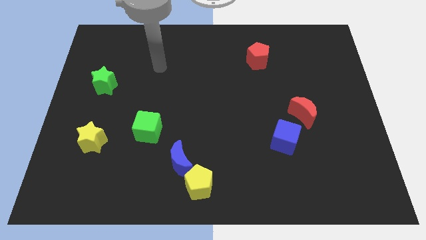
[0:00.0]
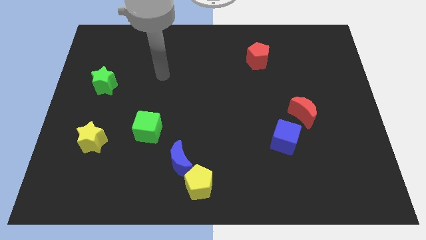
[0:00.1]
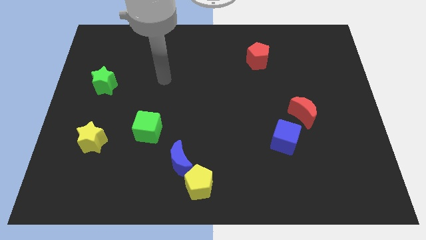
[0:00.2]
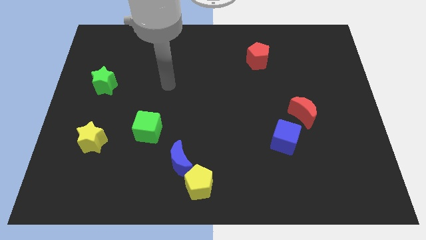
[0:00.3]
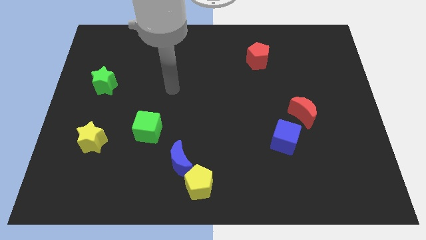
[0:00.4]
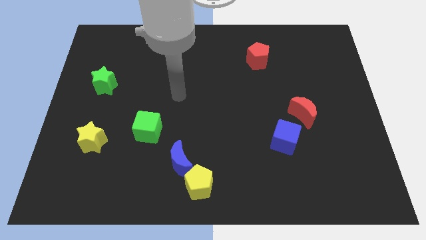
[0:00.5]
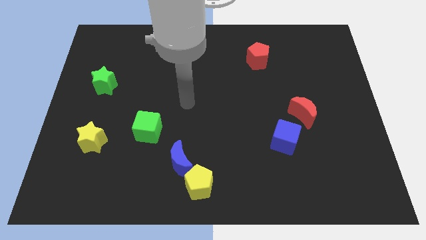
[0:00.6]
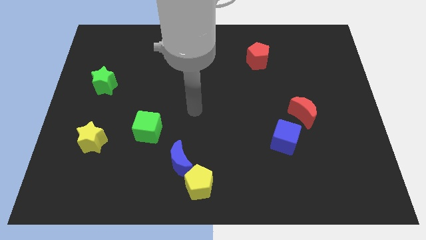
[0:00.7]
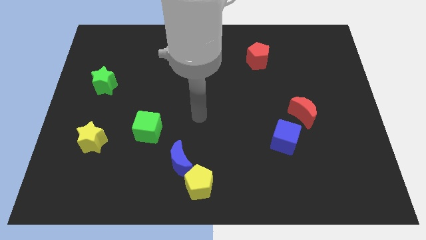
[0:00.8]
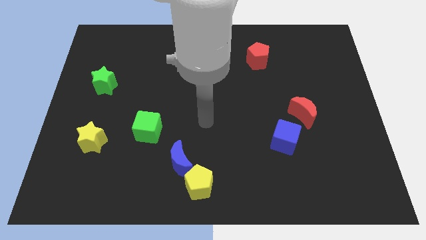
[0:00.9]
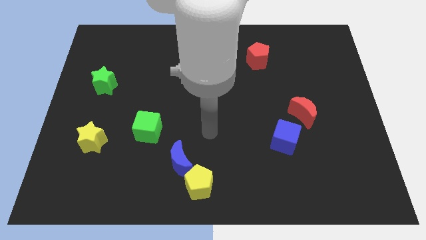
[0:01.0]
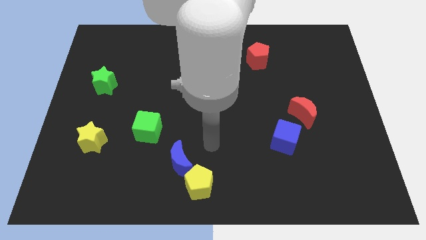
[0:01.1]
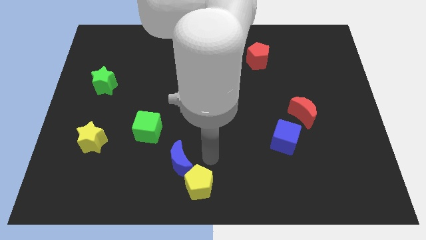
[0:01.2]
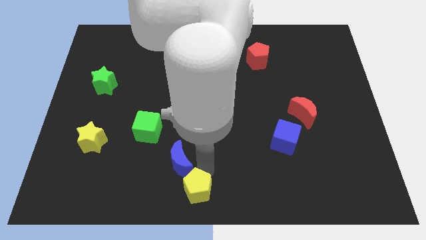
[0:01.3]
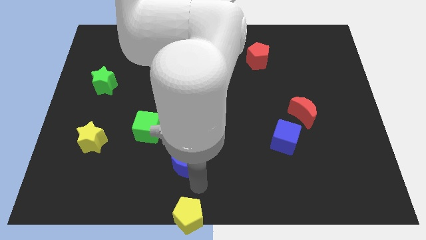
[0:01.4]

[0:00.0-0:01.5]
pull the blue moon apart from the yellow pentagon

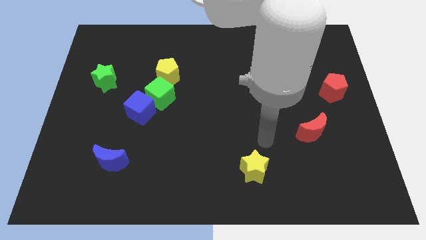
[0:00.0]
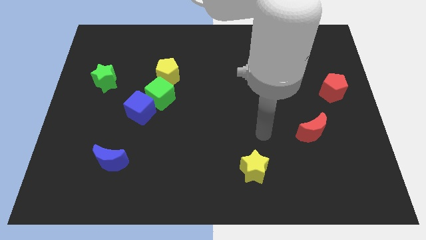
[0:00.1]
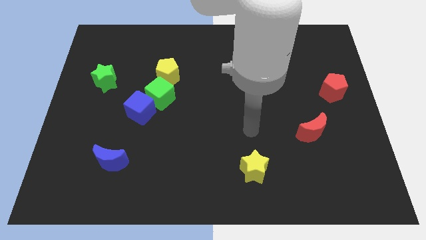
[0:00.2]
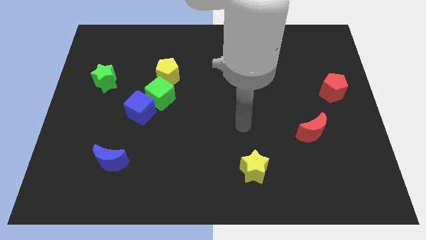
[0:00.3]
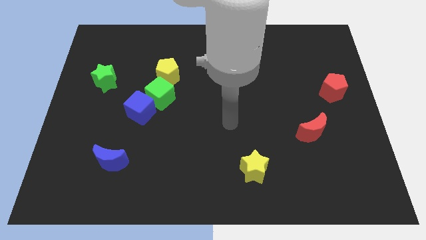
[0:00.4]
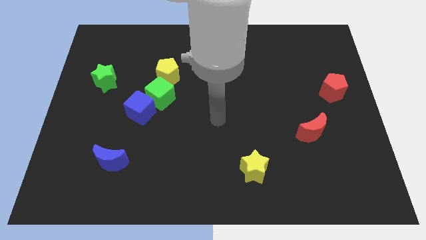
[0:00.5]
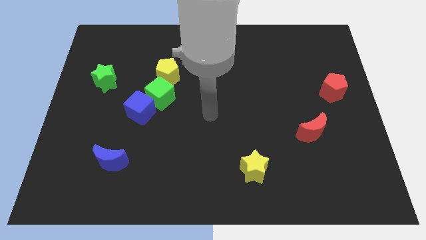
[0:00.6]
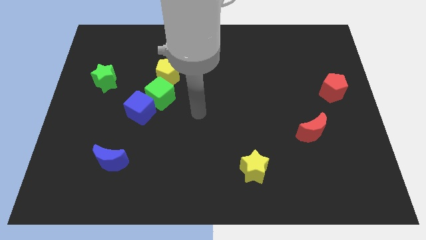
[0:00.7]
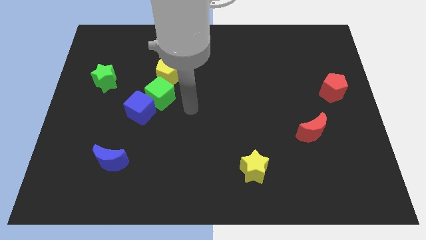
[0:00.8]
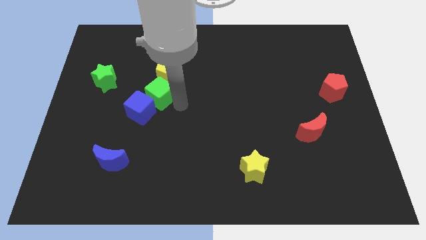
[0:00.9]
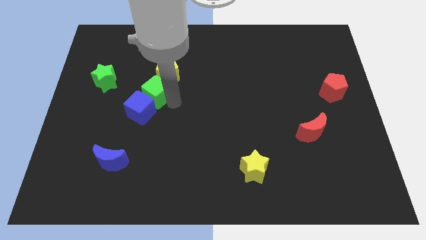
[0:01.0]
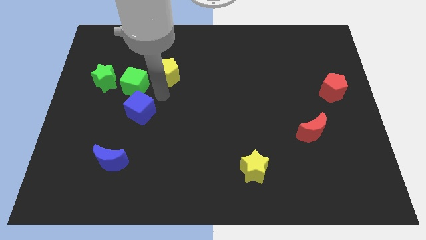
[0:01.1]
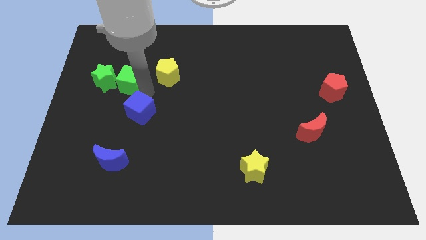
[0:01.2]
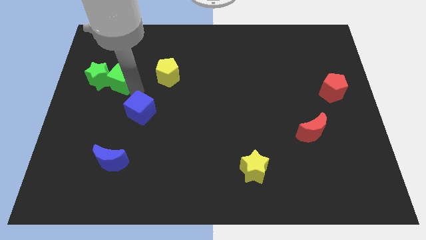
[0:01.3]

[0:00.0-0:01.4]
move the blue cube away from the green cube

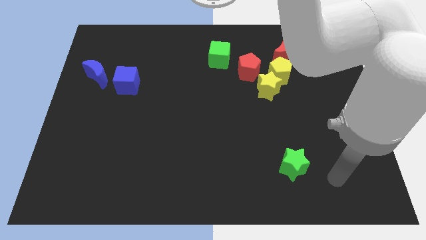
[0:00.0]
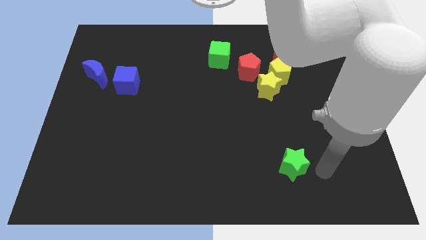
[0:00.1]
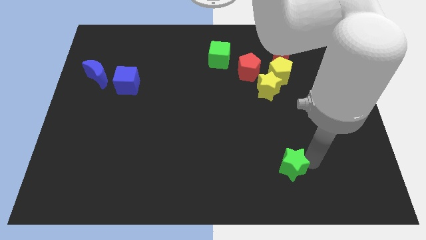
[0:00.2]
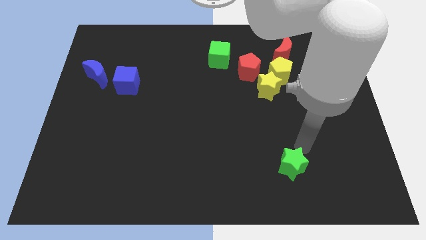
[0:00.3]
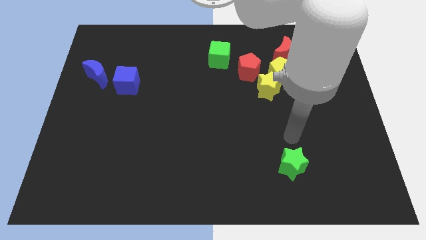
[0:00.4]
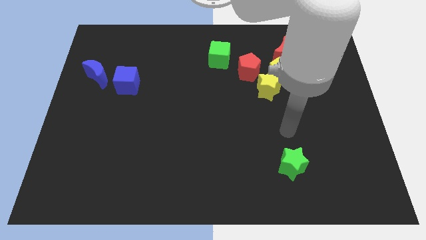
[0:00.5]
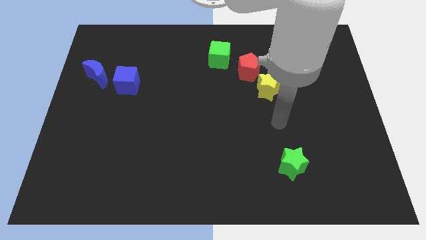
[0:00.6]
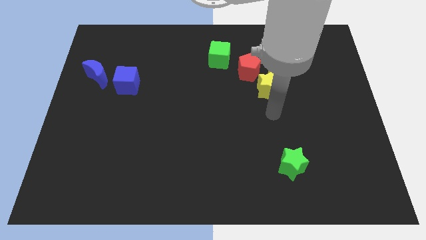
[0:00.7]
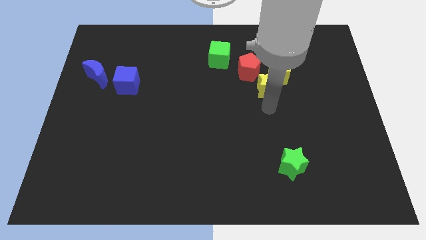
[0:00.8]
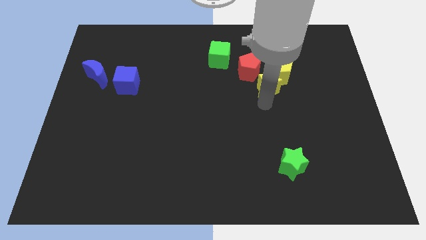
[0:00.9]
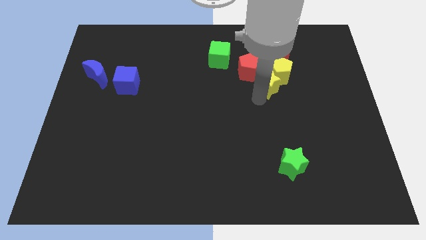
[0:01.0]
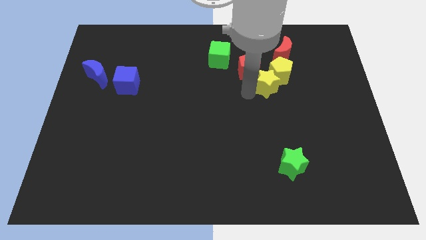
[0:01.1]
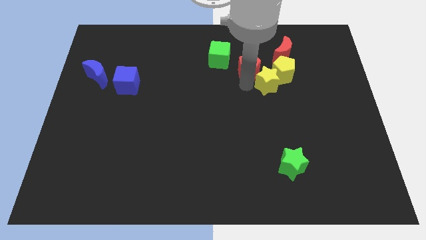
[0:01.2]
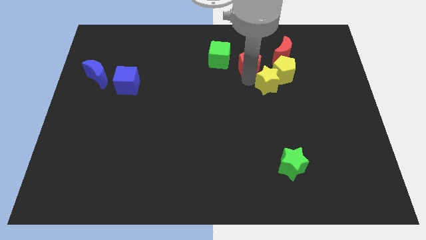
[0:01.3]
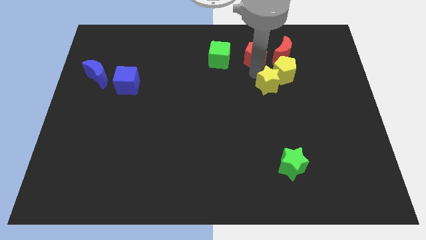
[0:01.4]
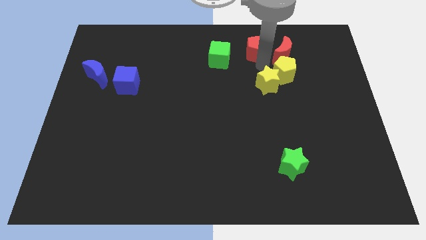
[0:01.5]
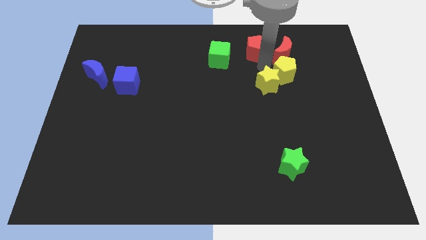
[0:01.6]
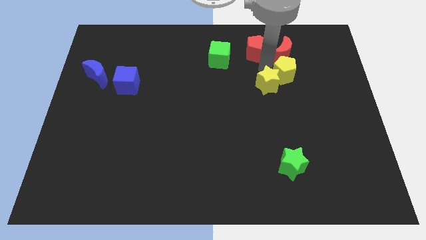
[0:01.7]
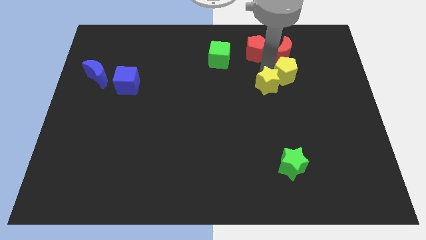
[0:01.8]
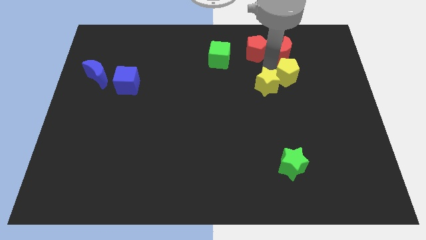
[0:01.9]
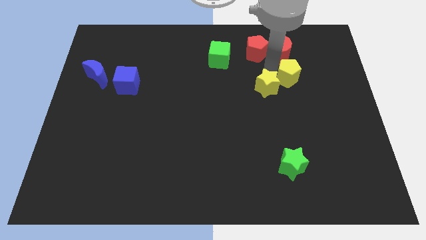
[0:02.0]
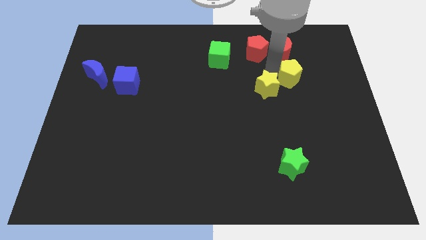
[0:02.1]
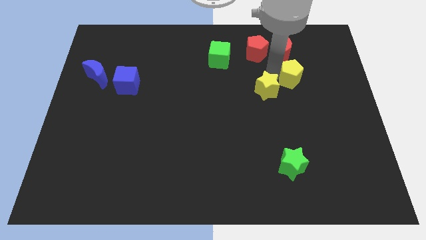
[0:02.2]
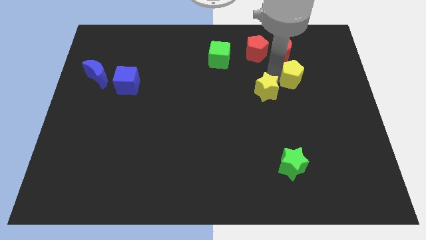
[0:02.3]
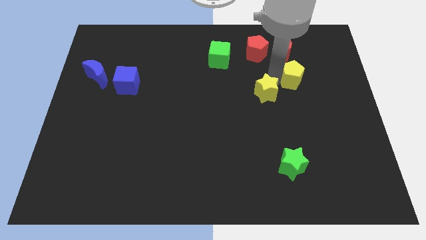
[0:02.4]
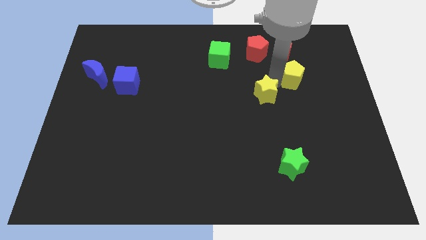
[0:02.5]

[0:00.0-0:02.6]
move the yellow star away from the yellow pentagon and red pentagon

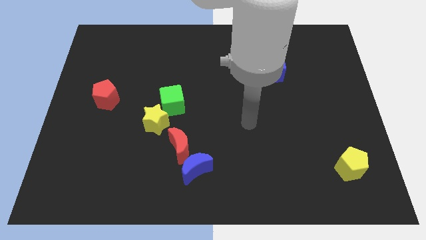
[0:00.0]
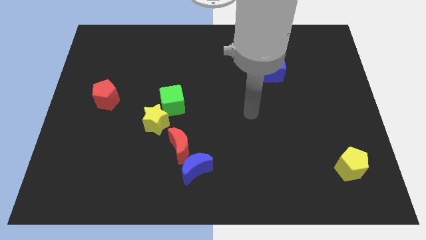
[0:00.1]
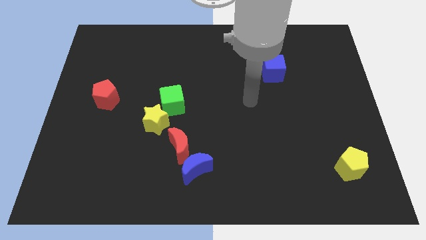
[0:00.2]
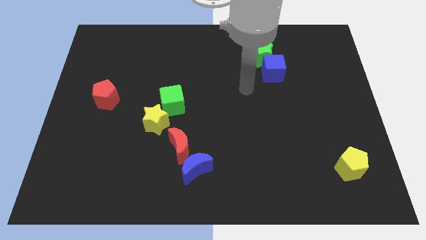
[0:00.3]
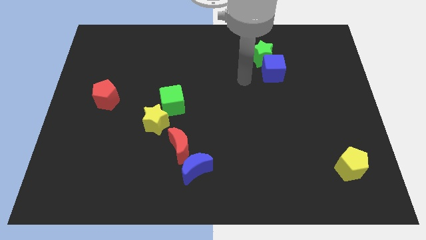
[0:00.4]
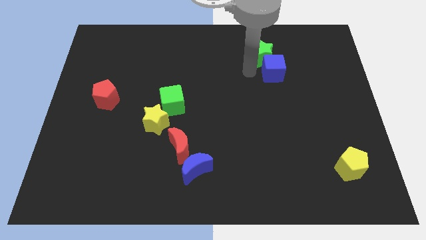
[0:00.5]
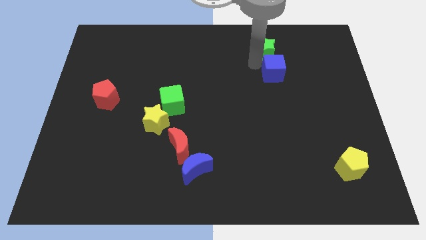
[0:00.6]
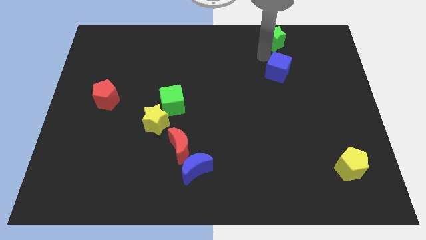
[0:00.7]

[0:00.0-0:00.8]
move the blue cube away from the green star

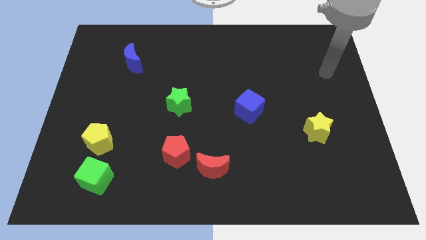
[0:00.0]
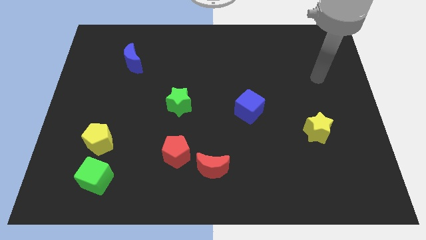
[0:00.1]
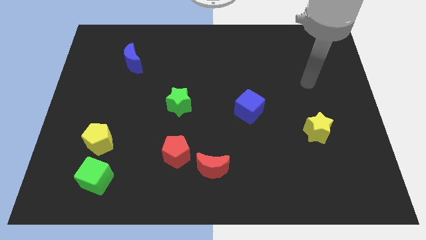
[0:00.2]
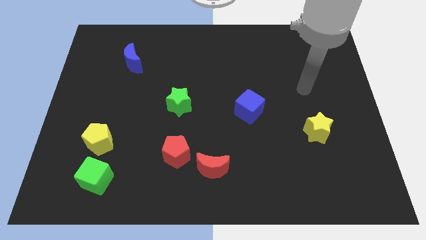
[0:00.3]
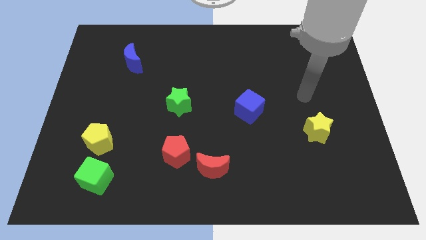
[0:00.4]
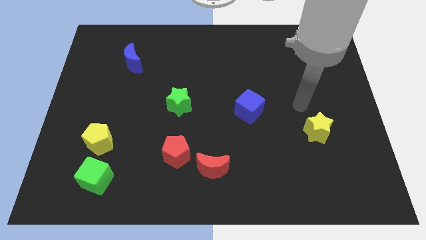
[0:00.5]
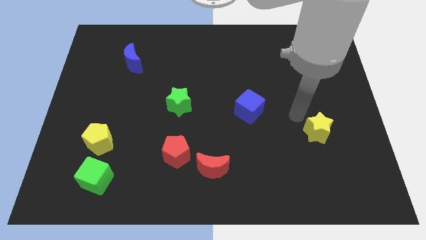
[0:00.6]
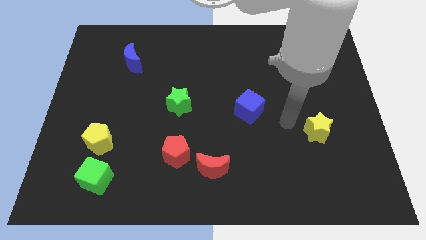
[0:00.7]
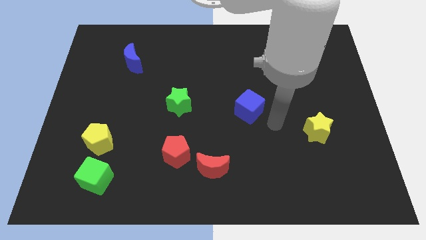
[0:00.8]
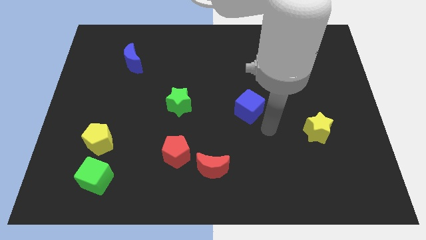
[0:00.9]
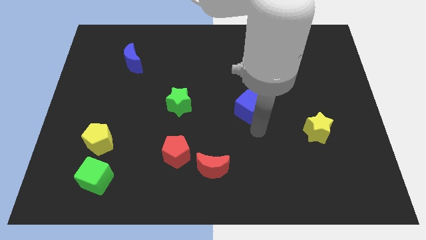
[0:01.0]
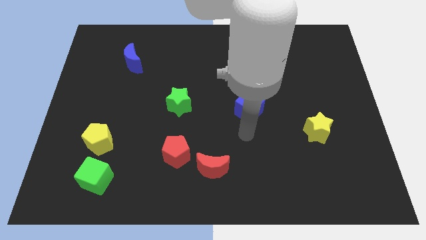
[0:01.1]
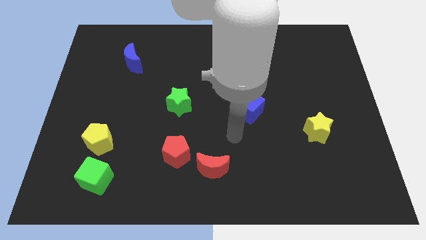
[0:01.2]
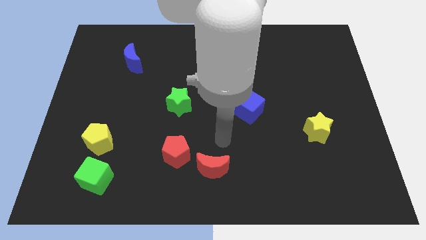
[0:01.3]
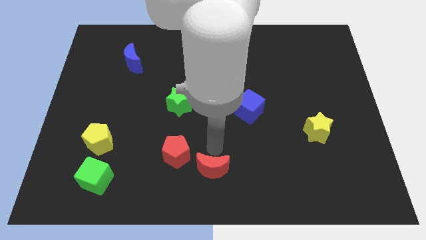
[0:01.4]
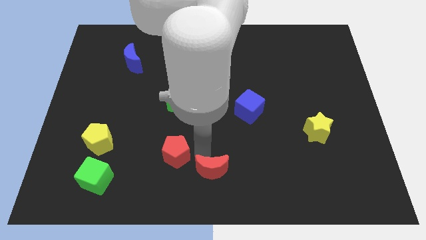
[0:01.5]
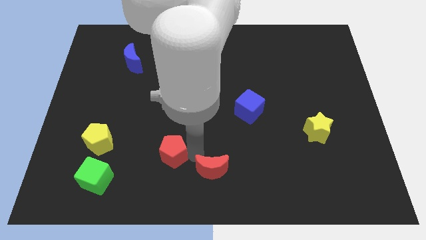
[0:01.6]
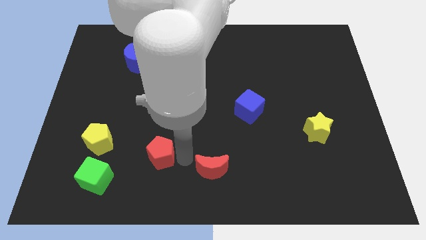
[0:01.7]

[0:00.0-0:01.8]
pull the red moon apart from the red pentagon

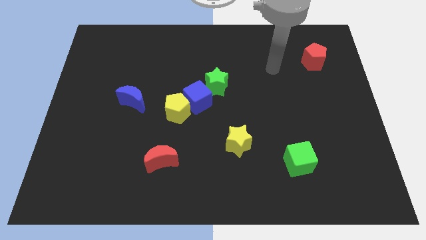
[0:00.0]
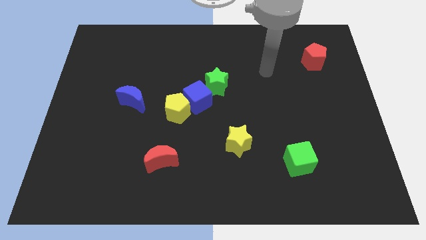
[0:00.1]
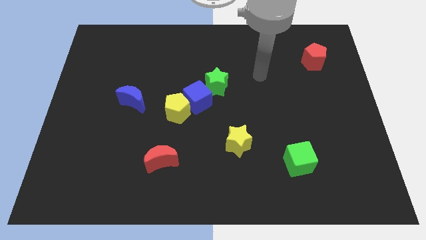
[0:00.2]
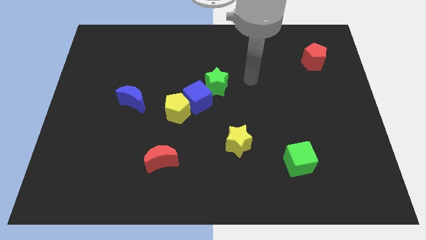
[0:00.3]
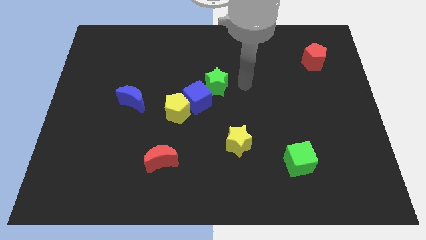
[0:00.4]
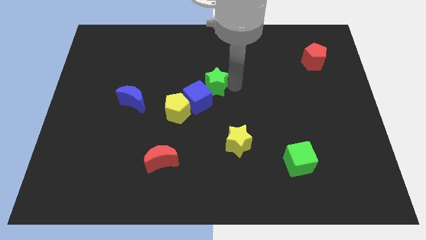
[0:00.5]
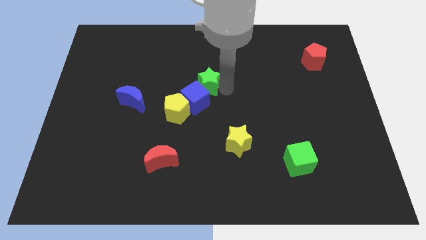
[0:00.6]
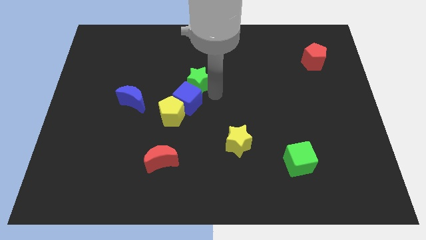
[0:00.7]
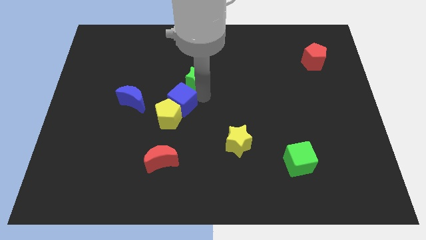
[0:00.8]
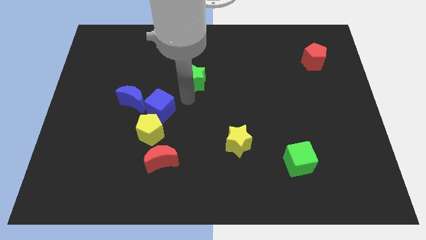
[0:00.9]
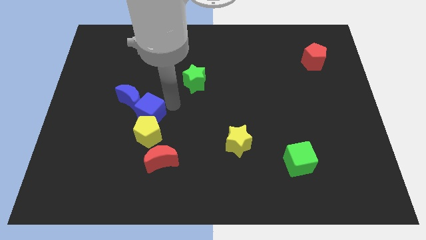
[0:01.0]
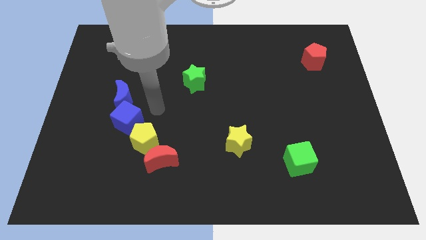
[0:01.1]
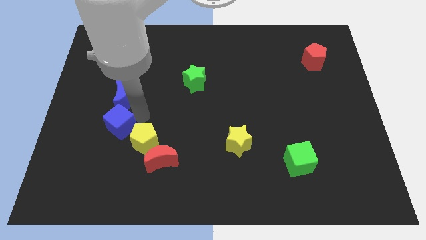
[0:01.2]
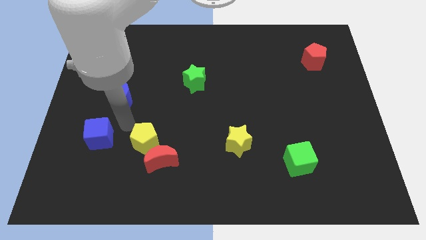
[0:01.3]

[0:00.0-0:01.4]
separate the yellow pentagon from the blue cube
